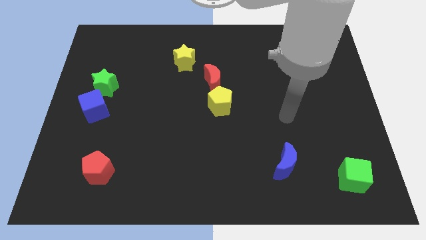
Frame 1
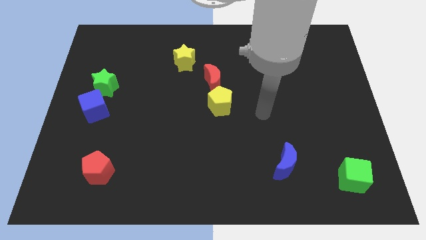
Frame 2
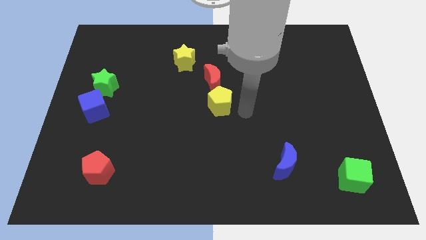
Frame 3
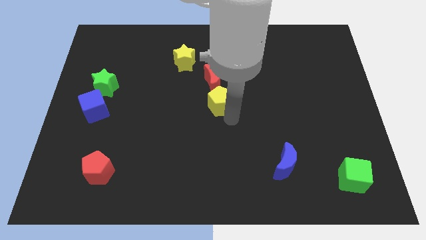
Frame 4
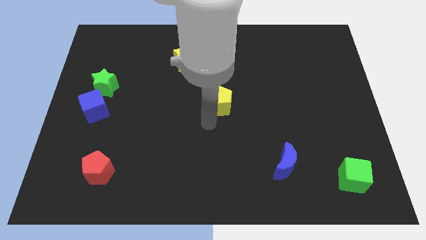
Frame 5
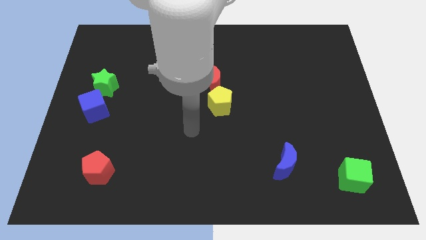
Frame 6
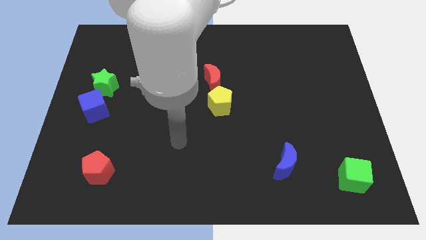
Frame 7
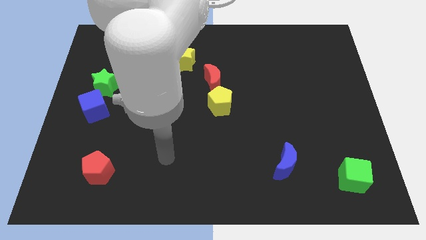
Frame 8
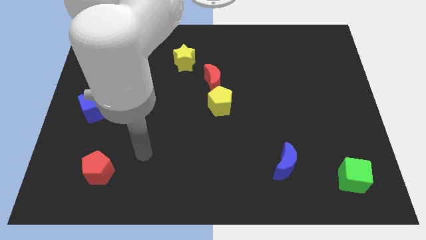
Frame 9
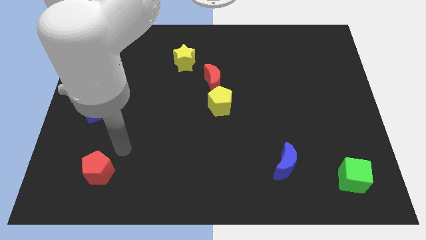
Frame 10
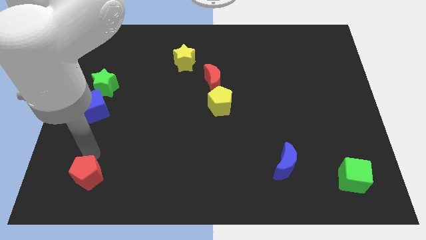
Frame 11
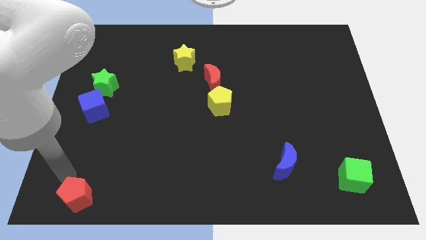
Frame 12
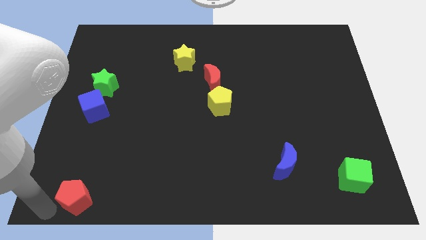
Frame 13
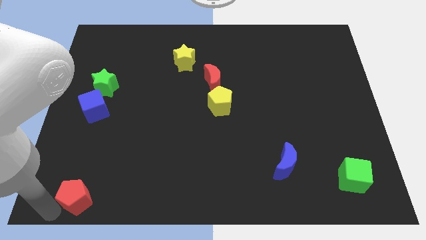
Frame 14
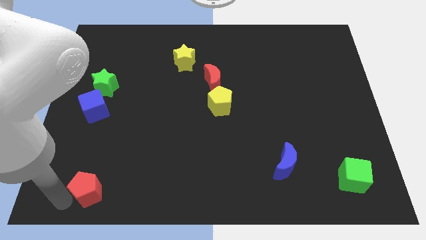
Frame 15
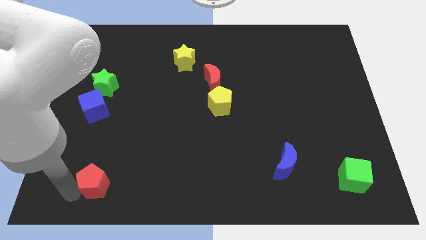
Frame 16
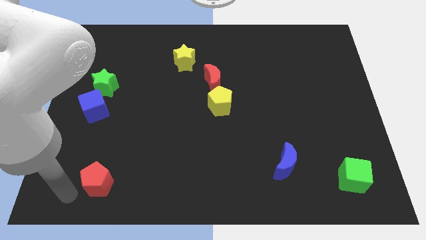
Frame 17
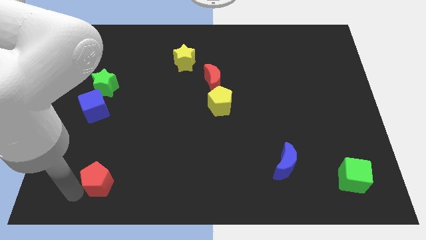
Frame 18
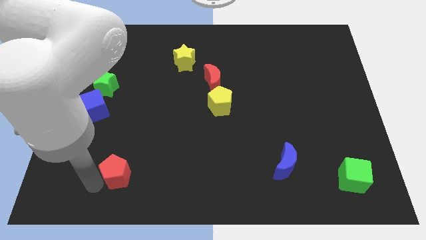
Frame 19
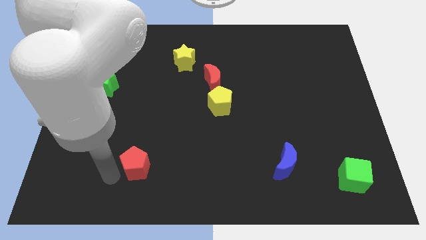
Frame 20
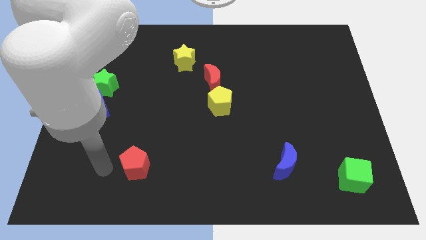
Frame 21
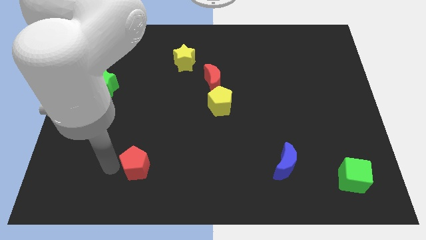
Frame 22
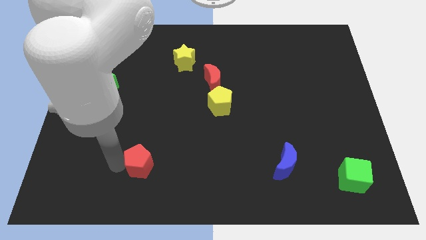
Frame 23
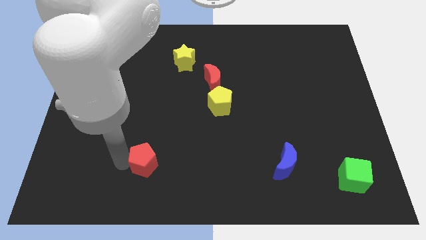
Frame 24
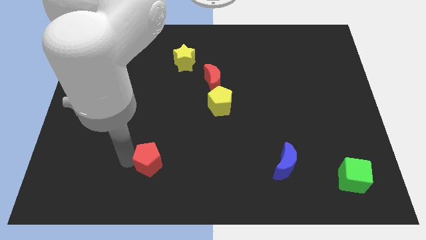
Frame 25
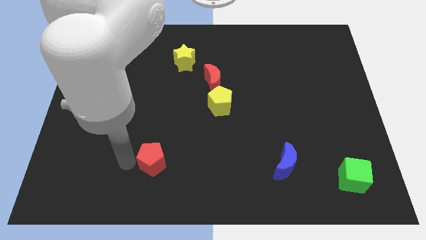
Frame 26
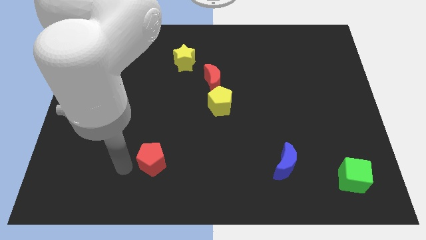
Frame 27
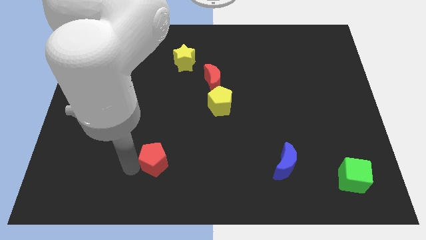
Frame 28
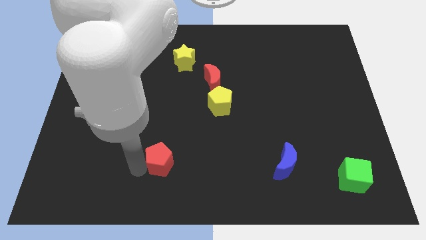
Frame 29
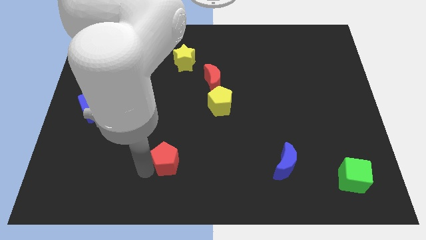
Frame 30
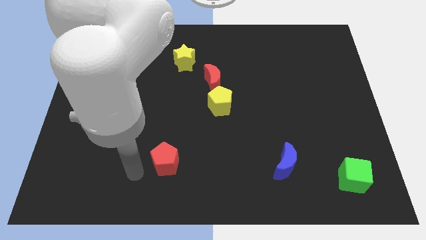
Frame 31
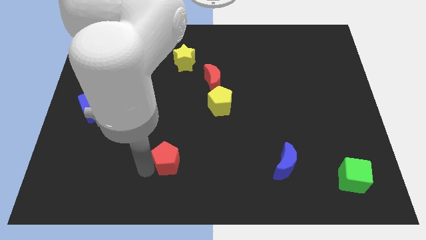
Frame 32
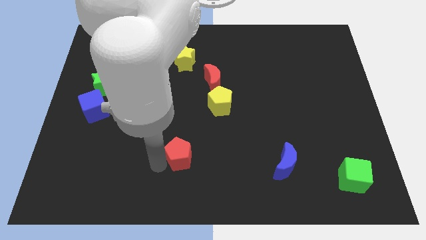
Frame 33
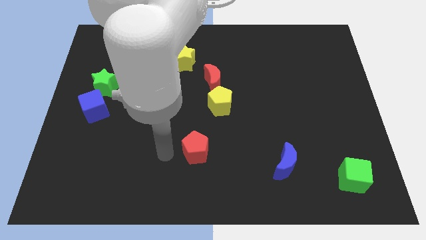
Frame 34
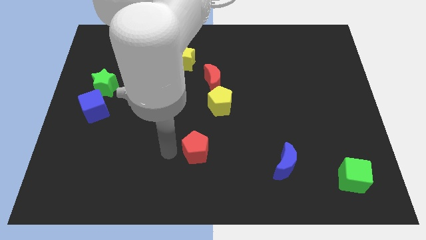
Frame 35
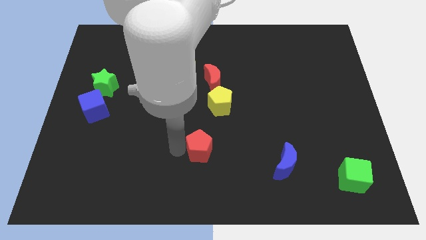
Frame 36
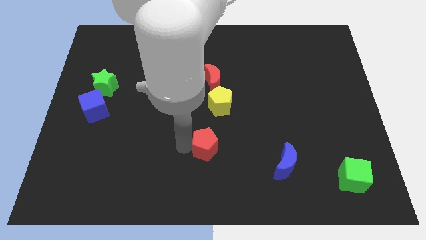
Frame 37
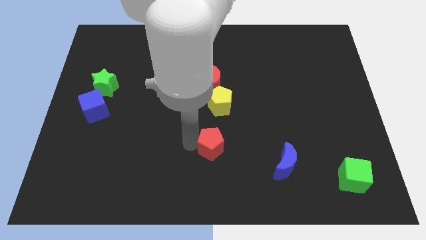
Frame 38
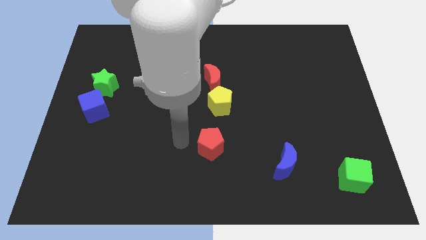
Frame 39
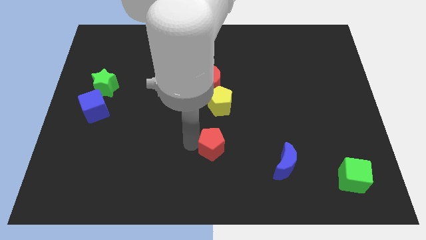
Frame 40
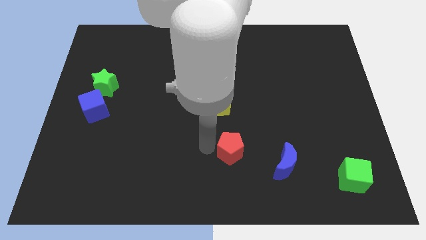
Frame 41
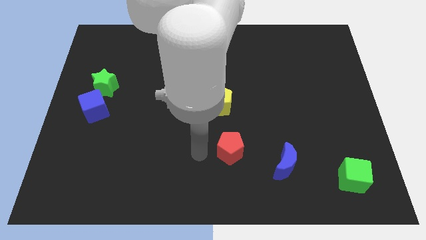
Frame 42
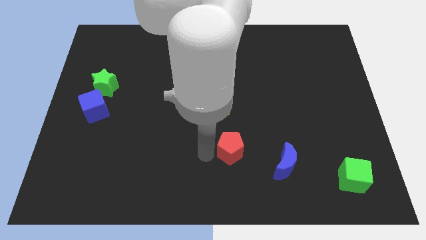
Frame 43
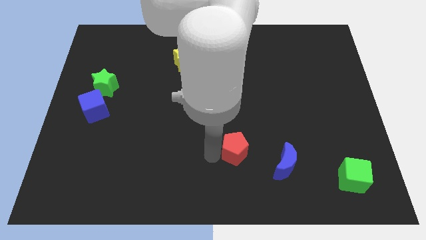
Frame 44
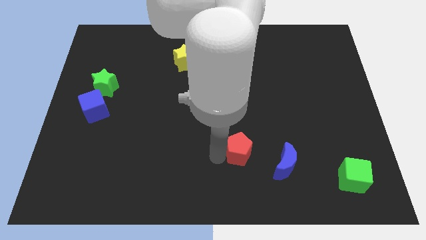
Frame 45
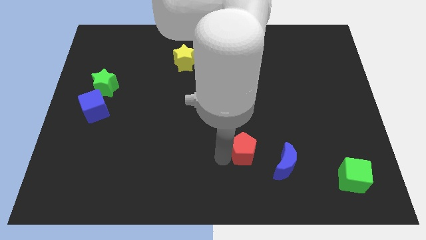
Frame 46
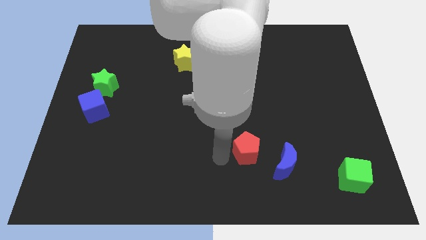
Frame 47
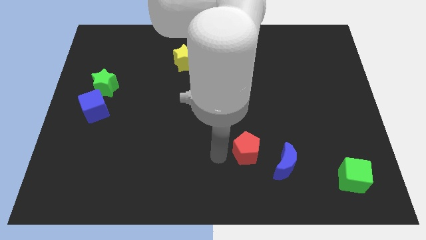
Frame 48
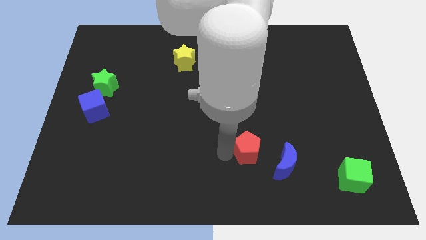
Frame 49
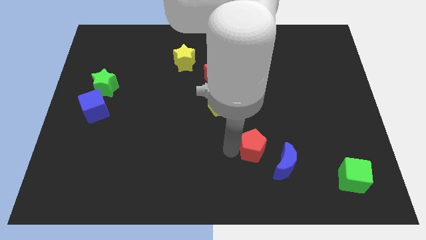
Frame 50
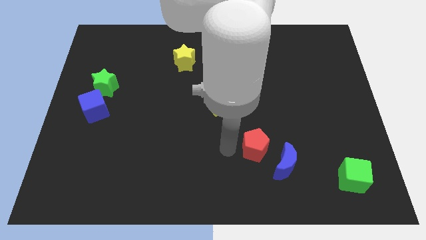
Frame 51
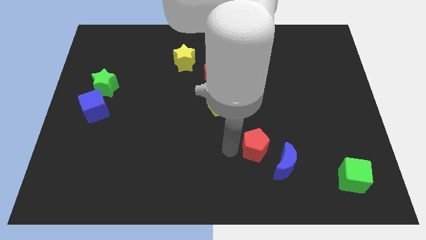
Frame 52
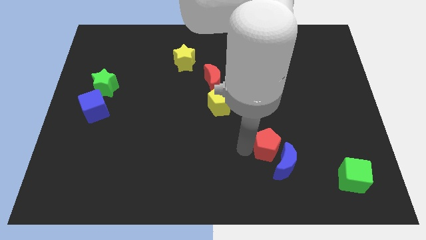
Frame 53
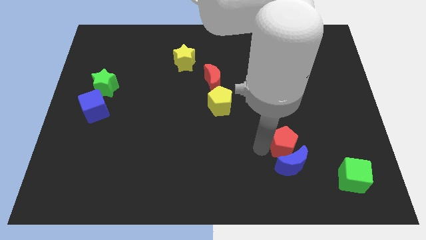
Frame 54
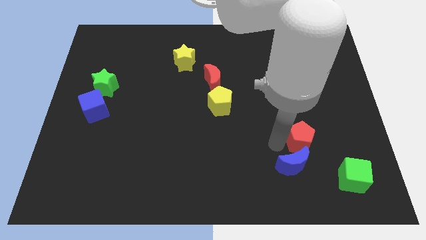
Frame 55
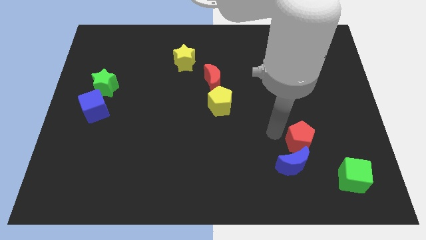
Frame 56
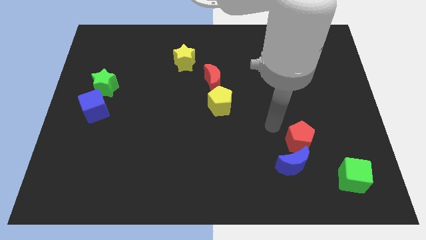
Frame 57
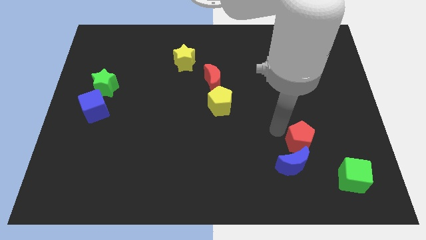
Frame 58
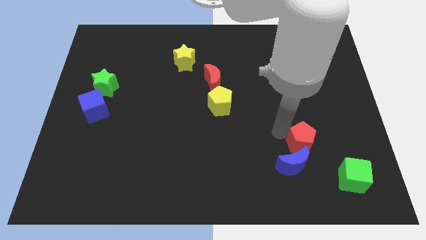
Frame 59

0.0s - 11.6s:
push the red pentagon to the top left of the green cube

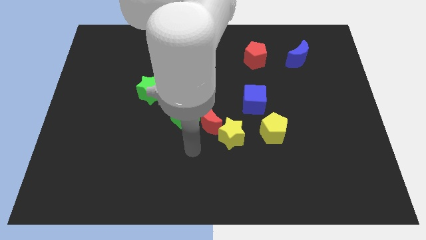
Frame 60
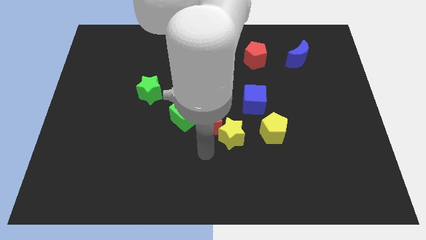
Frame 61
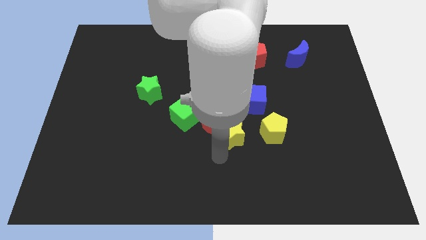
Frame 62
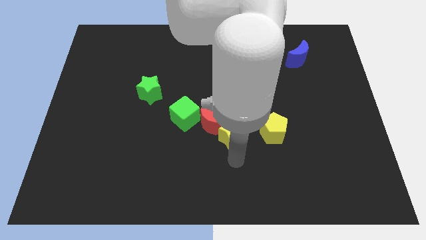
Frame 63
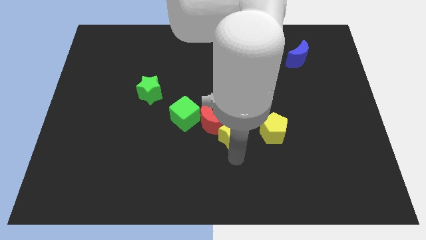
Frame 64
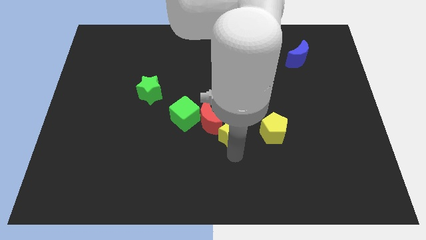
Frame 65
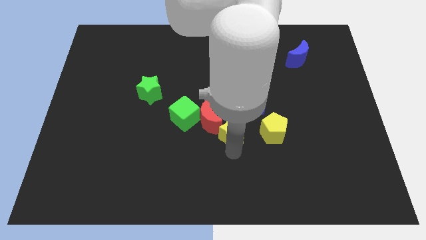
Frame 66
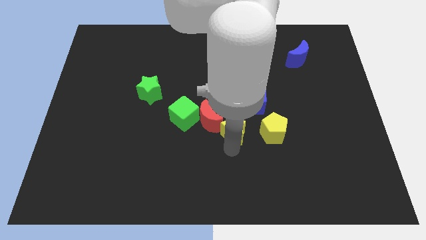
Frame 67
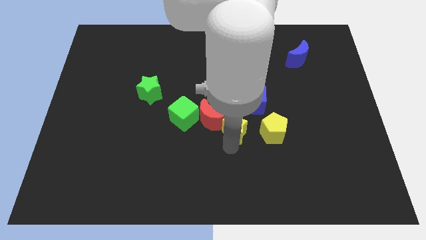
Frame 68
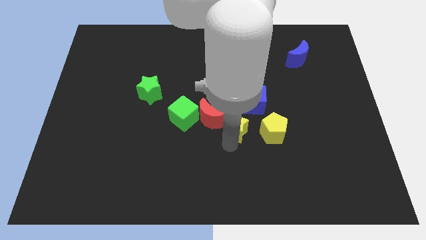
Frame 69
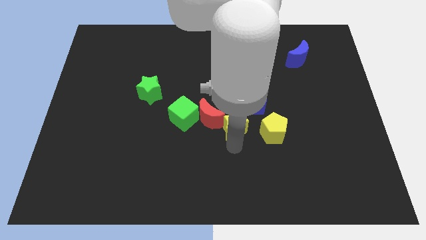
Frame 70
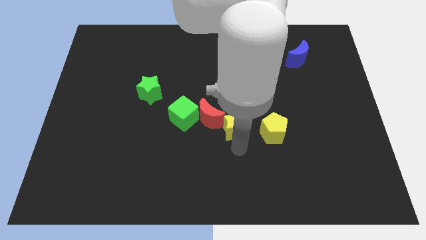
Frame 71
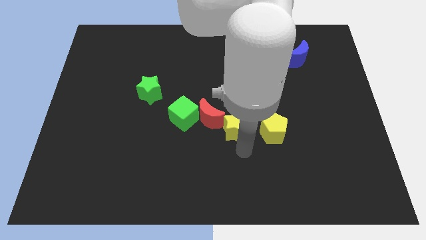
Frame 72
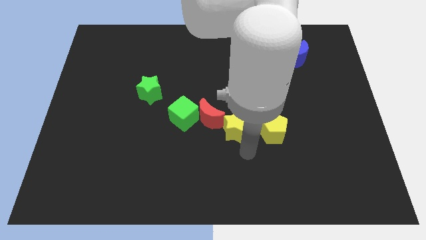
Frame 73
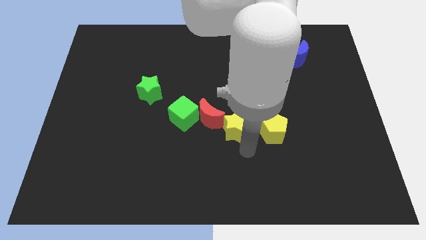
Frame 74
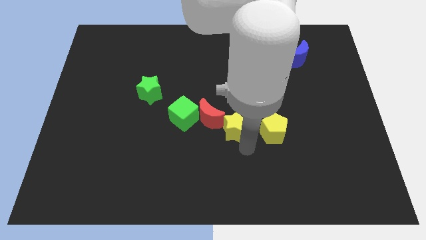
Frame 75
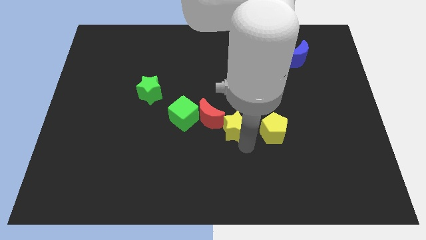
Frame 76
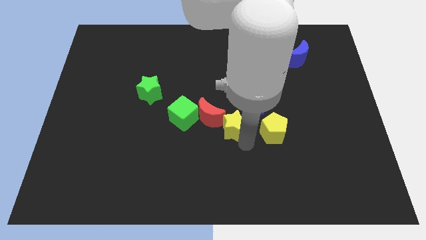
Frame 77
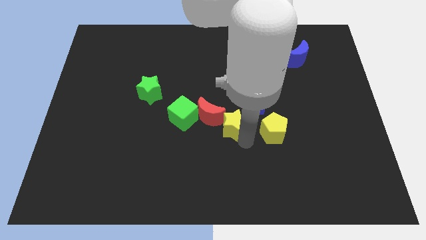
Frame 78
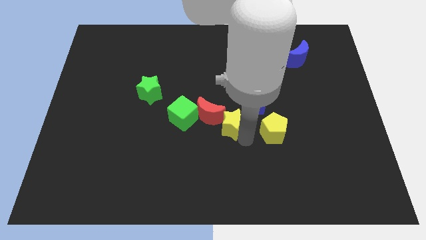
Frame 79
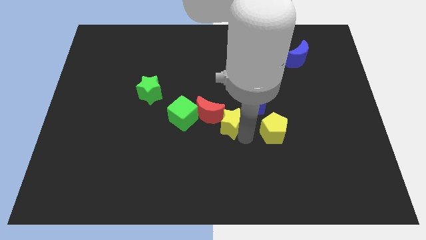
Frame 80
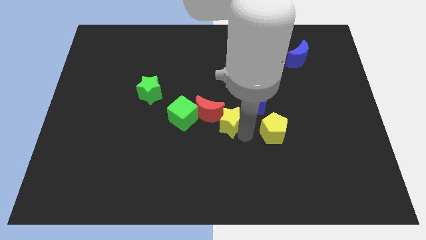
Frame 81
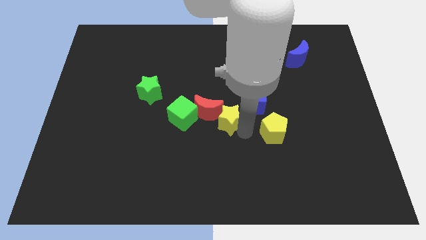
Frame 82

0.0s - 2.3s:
put the yellow star diagonally up and to the left of the yellow pentagon

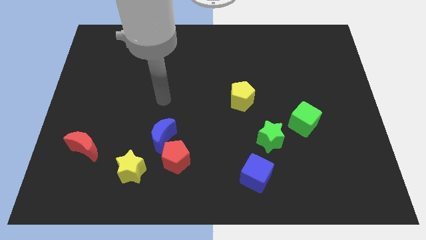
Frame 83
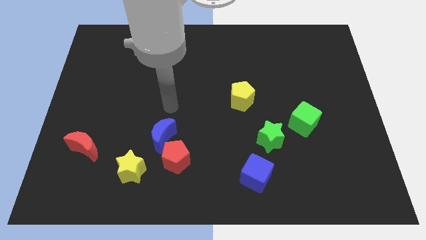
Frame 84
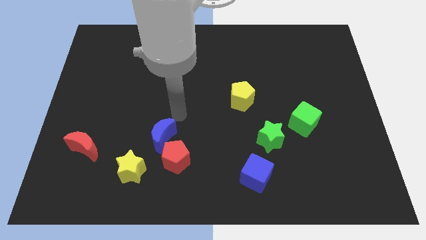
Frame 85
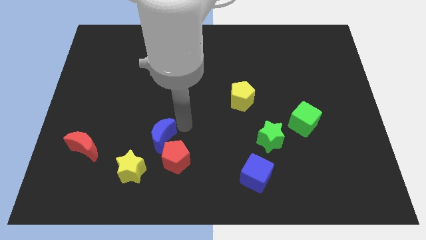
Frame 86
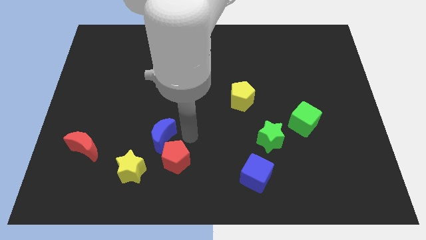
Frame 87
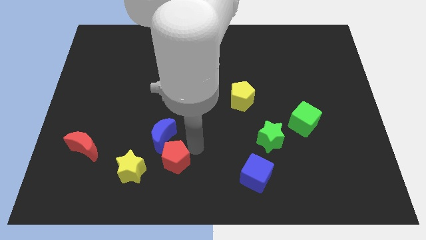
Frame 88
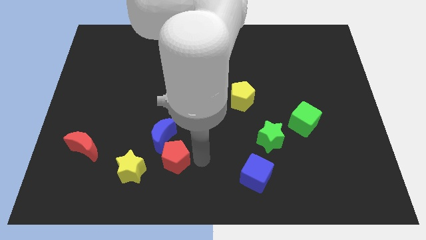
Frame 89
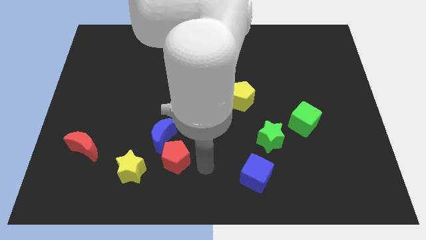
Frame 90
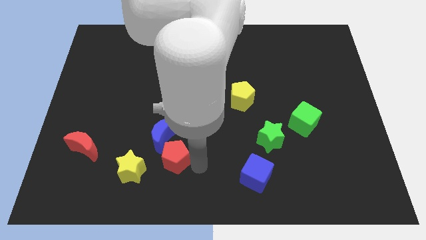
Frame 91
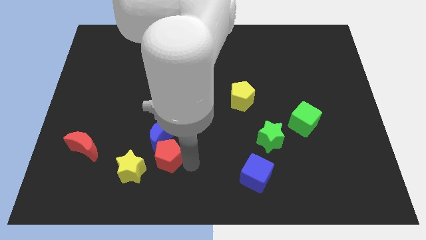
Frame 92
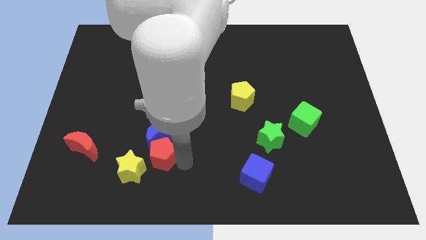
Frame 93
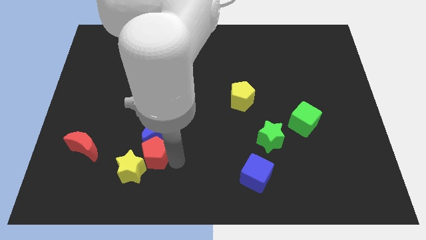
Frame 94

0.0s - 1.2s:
slide the red pentagon just right of the red moon
